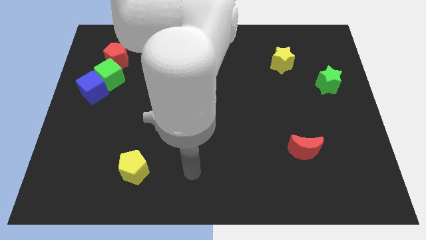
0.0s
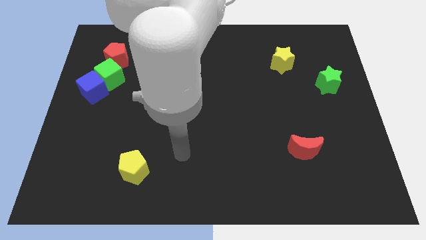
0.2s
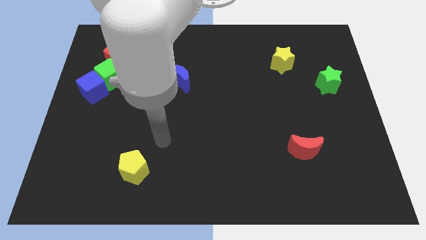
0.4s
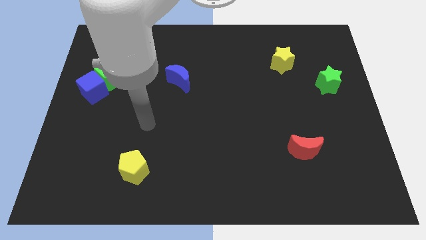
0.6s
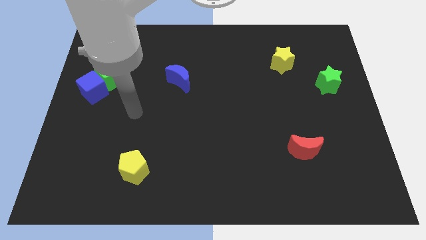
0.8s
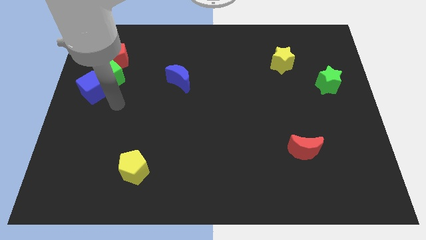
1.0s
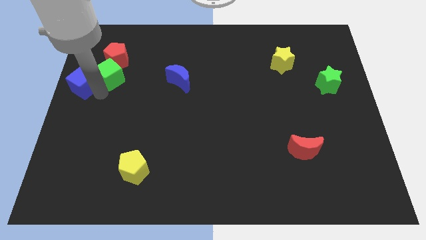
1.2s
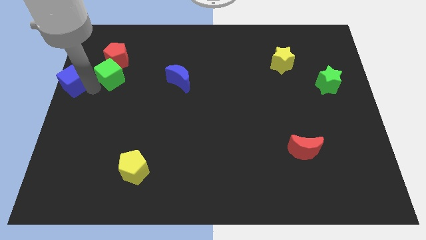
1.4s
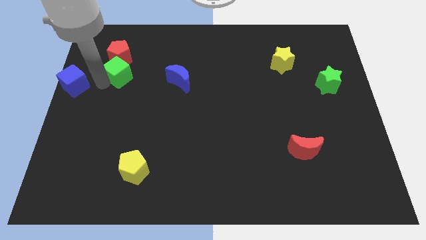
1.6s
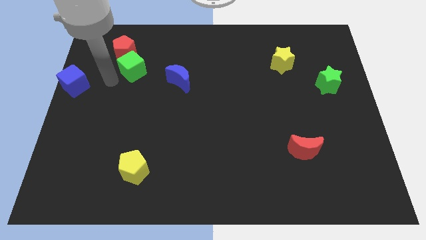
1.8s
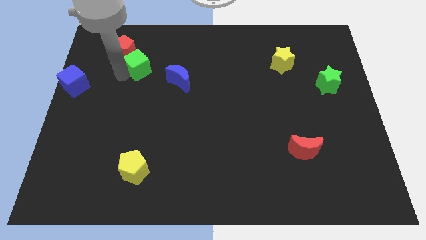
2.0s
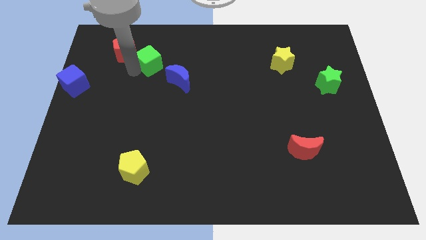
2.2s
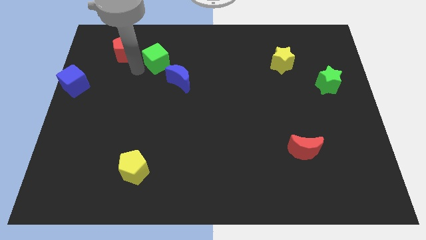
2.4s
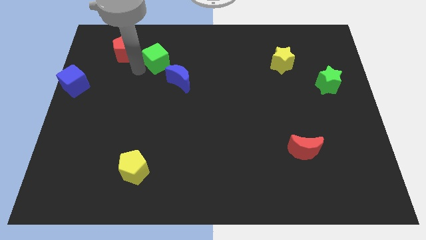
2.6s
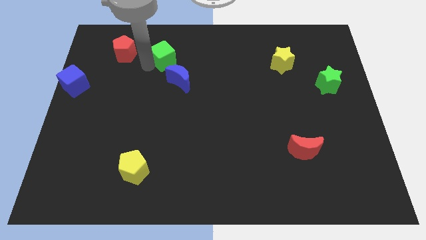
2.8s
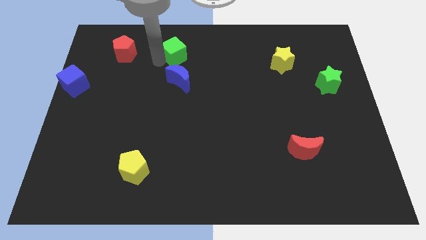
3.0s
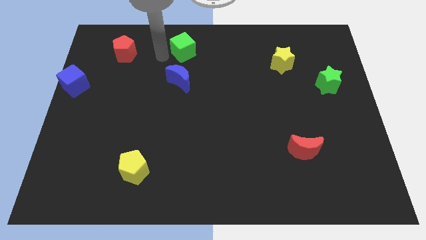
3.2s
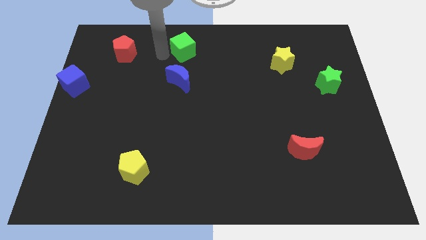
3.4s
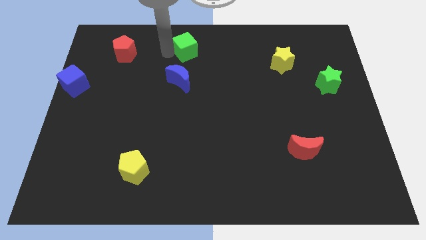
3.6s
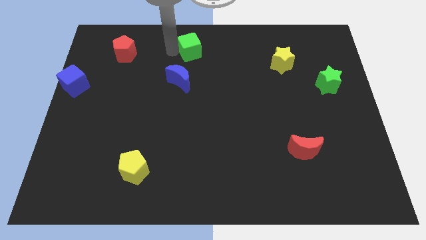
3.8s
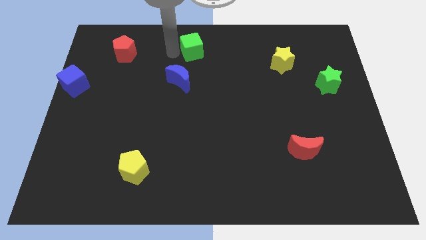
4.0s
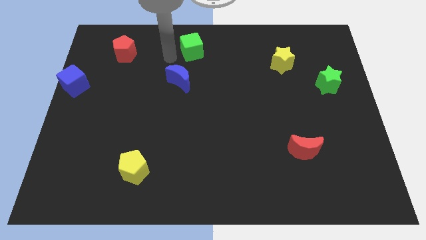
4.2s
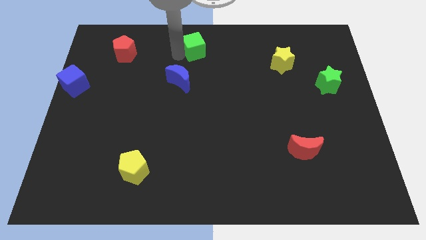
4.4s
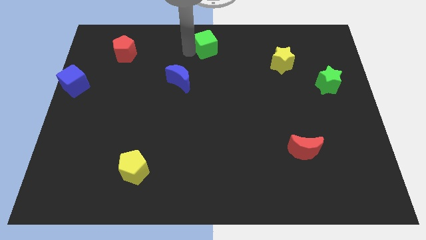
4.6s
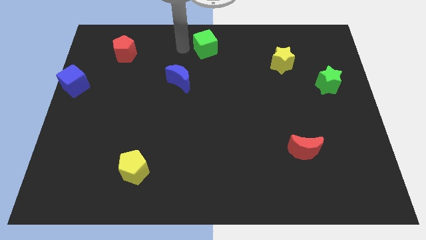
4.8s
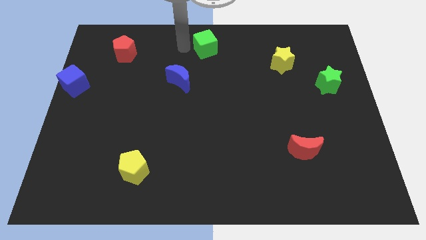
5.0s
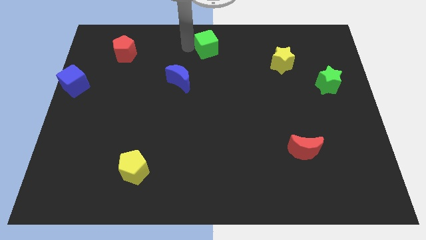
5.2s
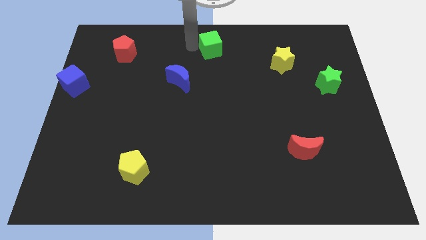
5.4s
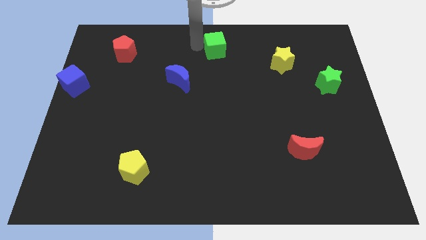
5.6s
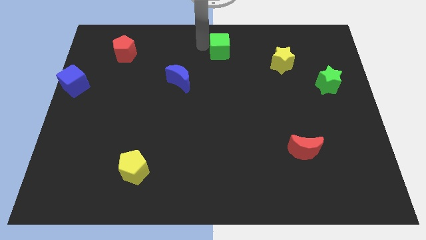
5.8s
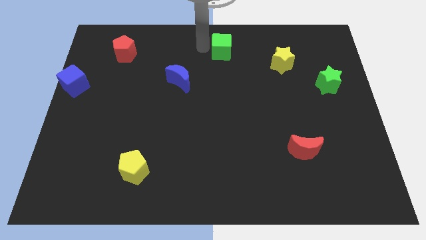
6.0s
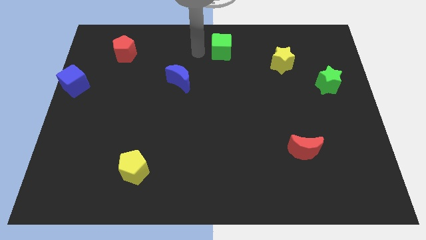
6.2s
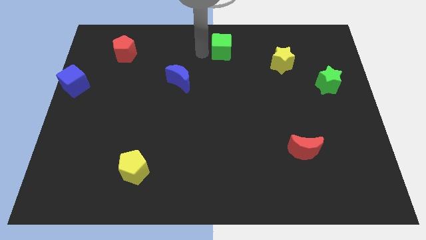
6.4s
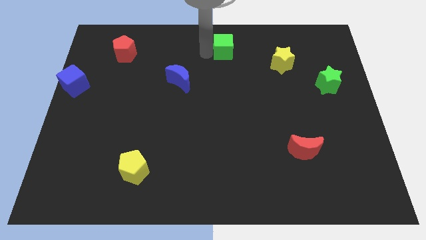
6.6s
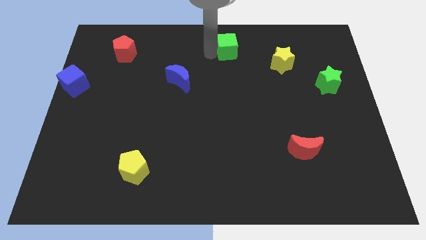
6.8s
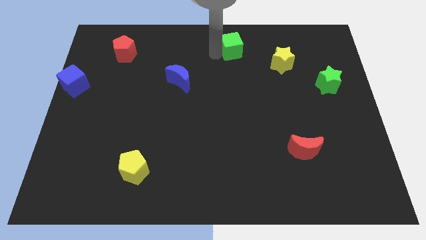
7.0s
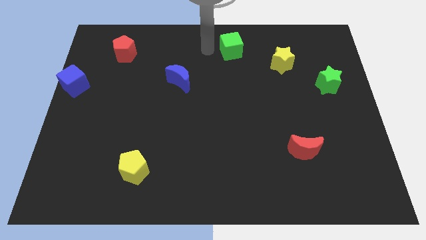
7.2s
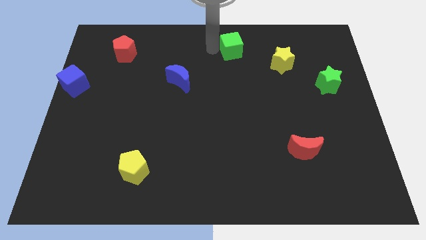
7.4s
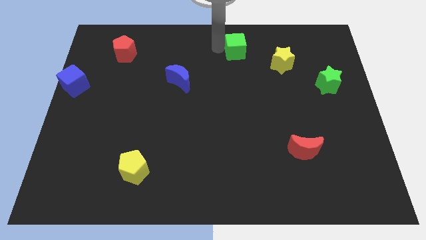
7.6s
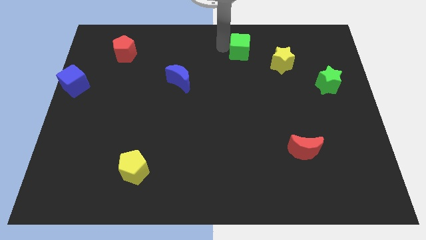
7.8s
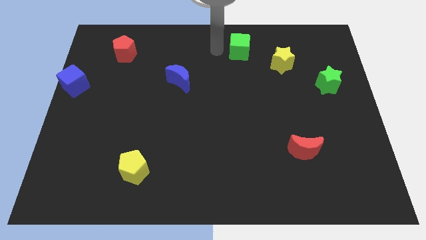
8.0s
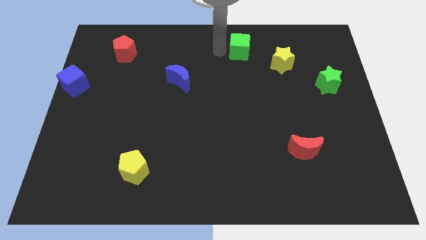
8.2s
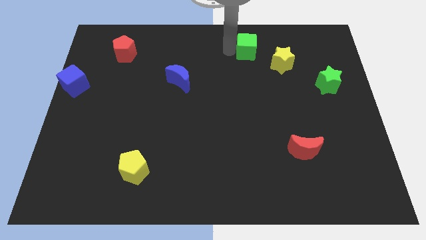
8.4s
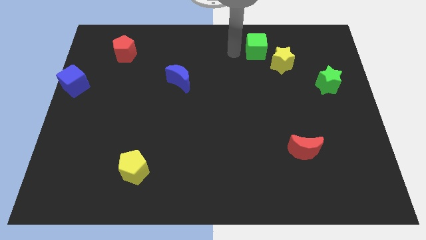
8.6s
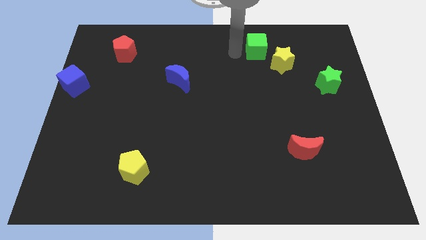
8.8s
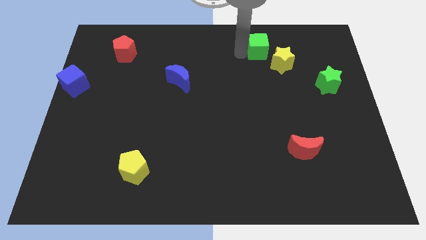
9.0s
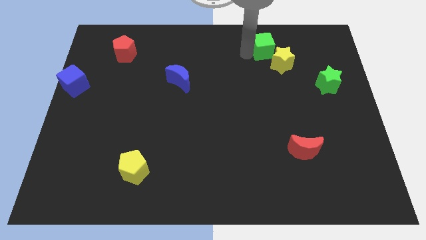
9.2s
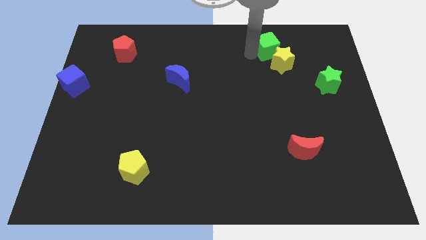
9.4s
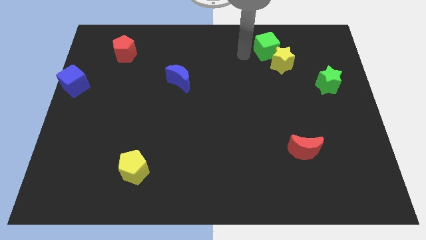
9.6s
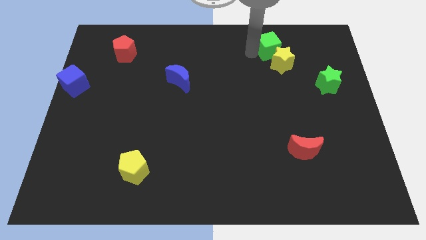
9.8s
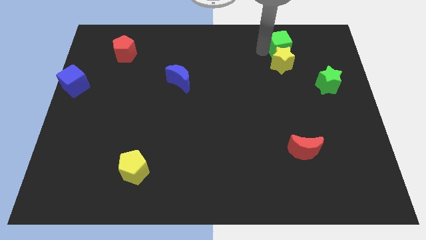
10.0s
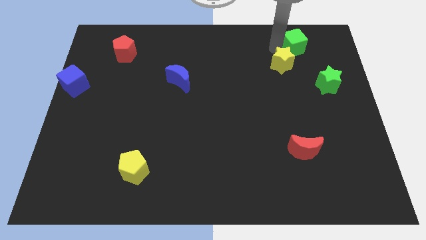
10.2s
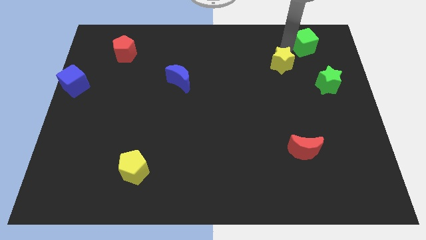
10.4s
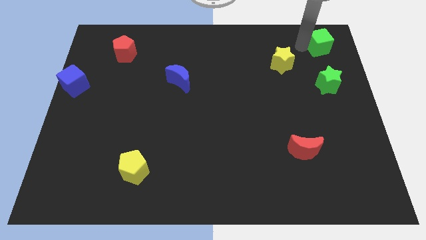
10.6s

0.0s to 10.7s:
move the green cube to the top right

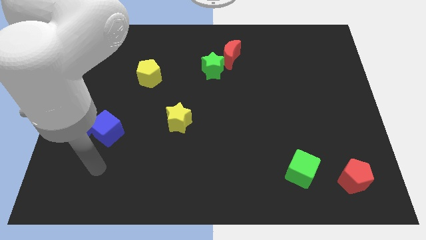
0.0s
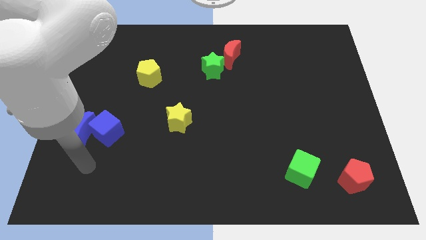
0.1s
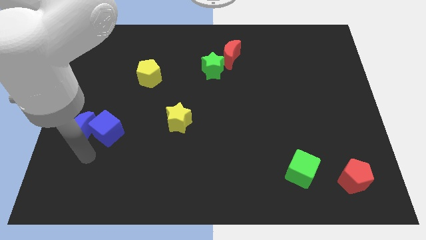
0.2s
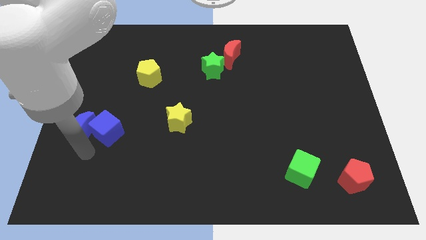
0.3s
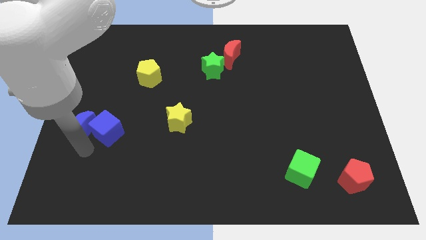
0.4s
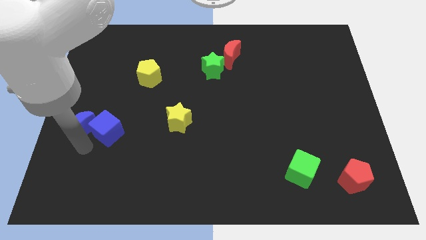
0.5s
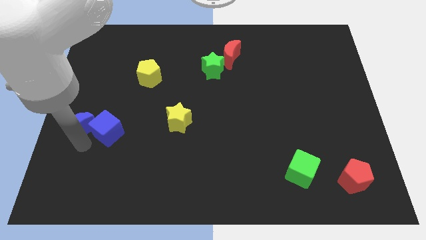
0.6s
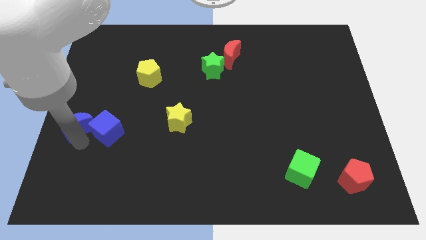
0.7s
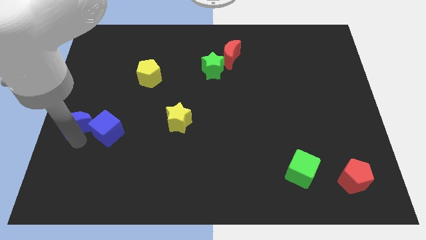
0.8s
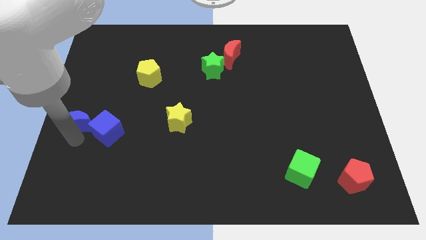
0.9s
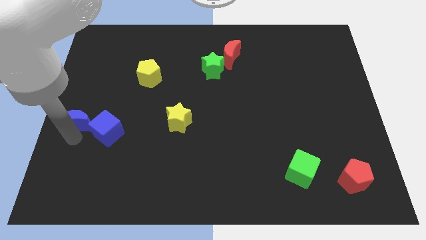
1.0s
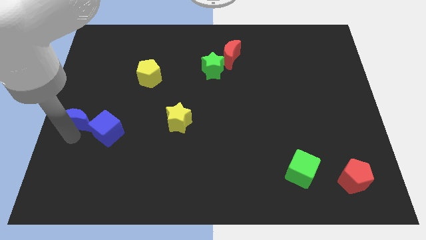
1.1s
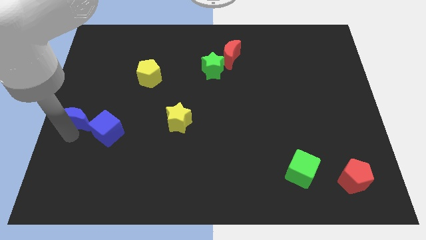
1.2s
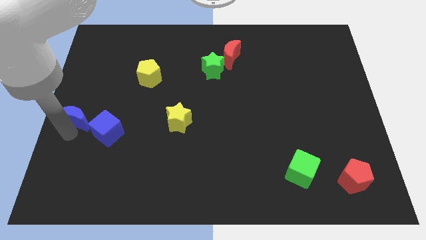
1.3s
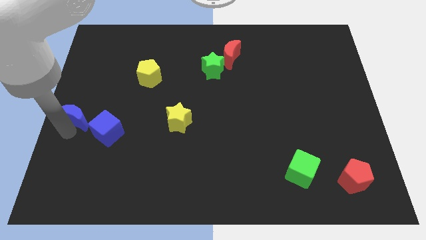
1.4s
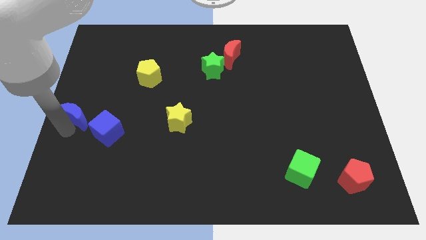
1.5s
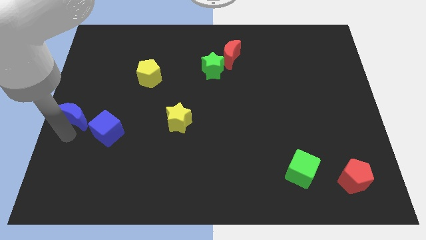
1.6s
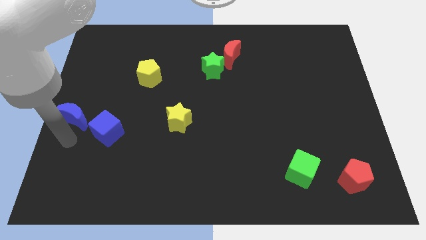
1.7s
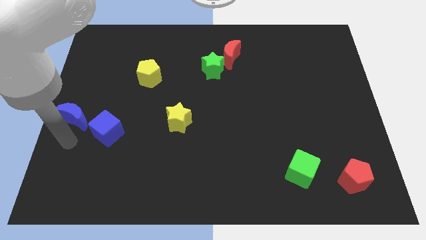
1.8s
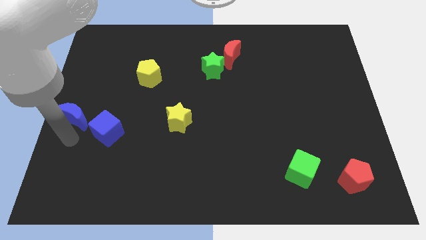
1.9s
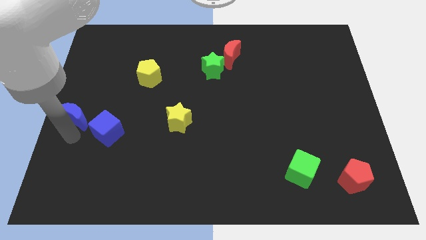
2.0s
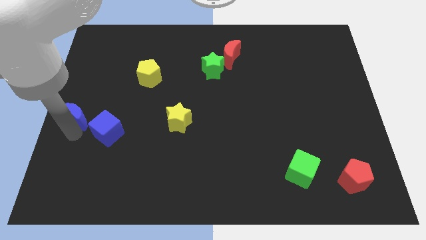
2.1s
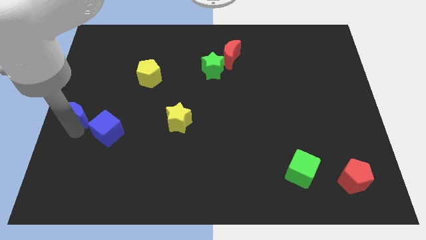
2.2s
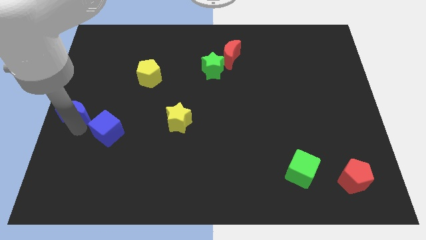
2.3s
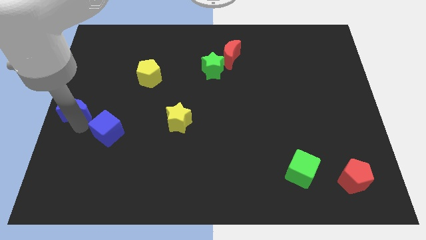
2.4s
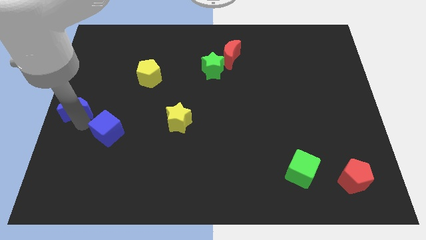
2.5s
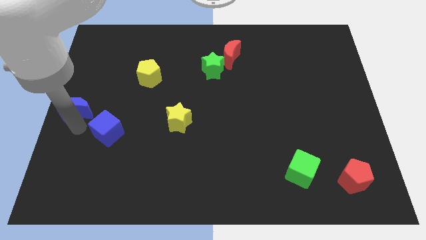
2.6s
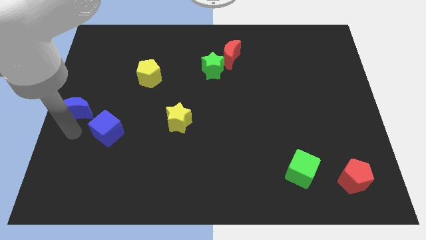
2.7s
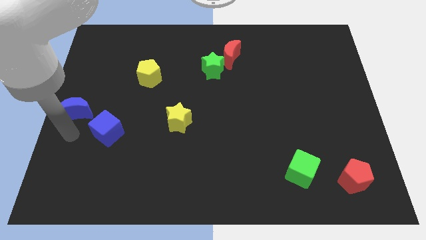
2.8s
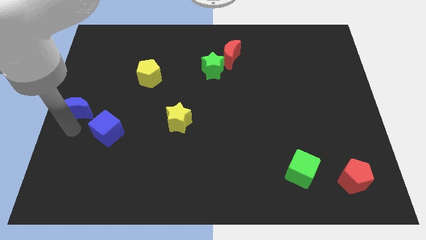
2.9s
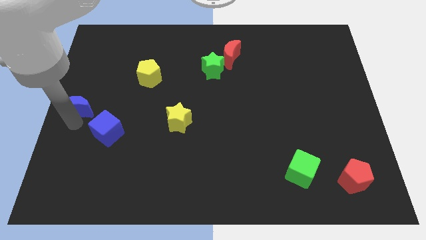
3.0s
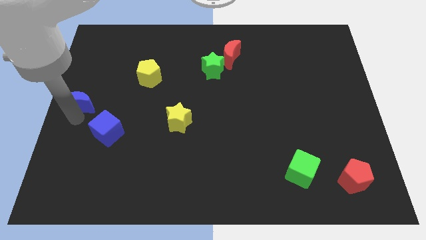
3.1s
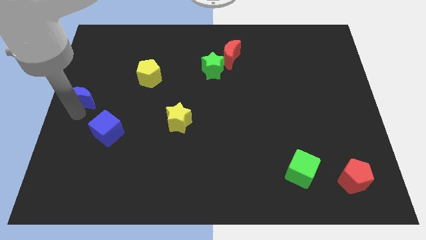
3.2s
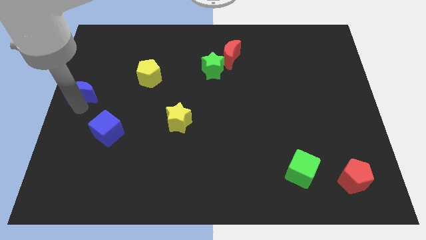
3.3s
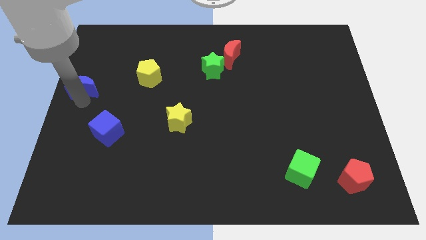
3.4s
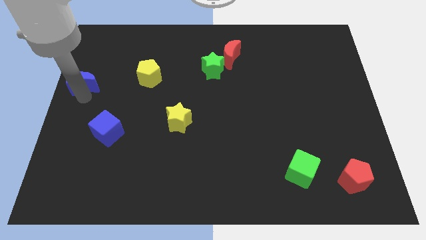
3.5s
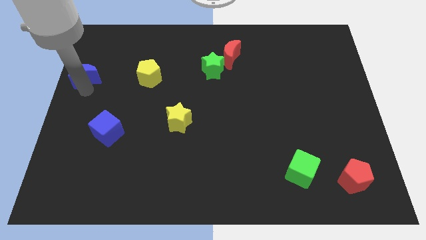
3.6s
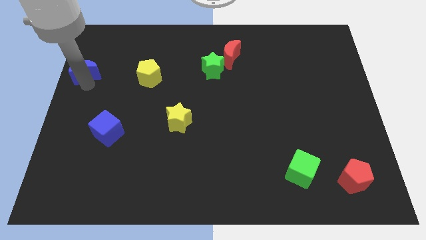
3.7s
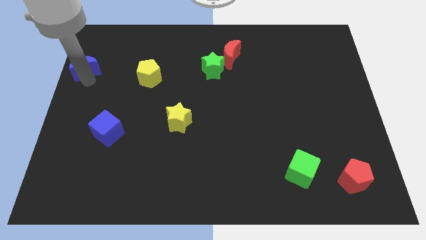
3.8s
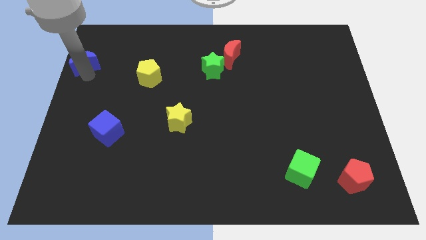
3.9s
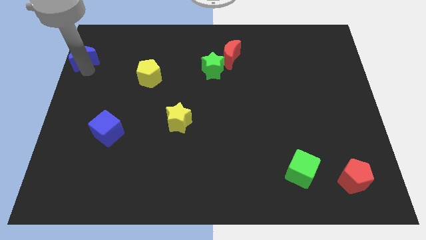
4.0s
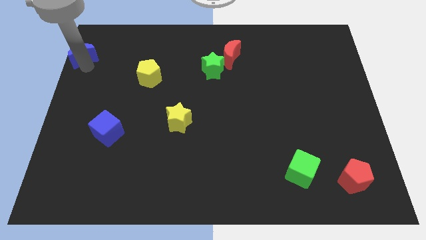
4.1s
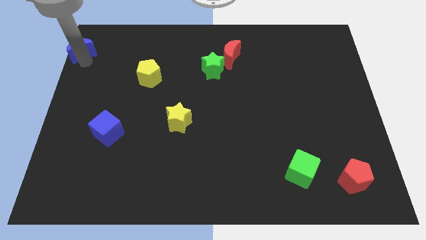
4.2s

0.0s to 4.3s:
push the blue moon to the top left corner
